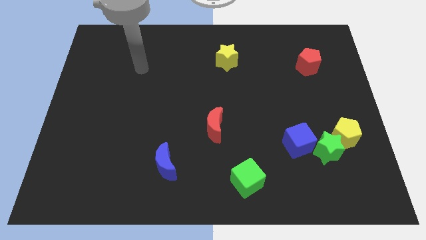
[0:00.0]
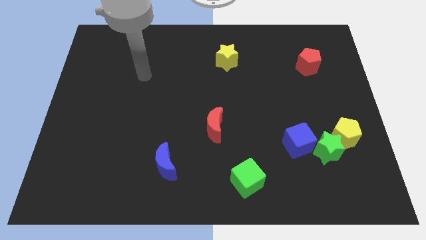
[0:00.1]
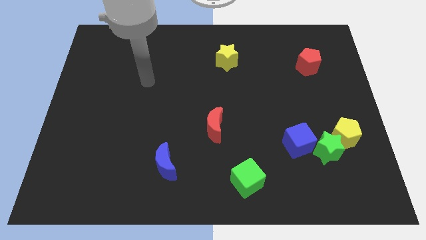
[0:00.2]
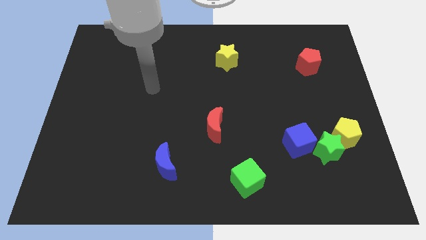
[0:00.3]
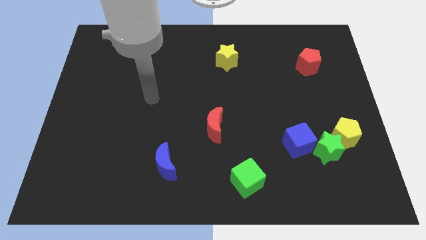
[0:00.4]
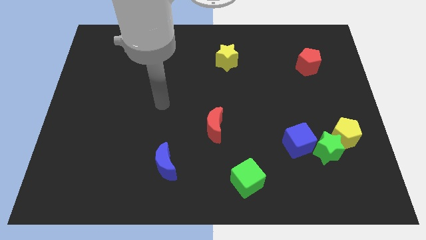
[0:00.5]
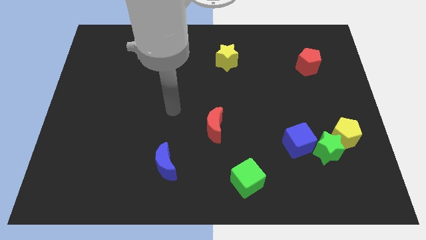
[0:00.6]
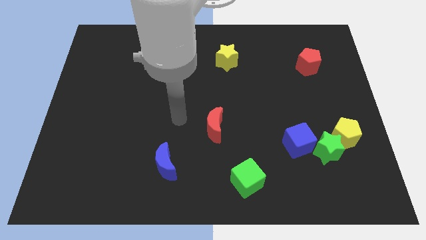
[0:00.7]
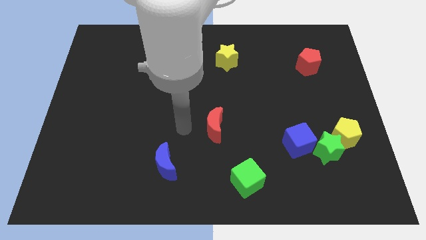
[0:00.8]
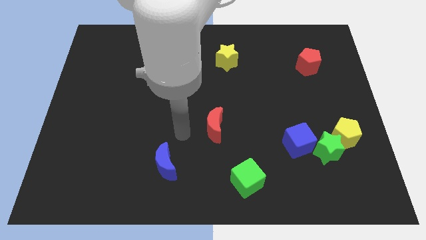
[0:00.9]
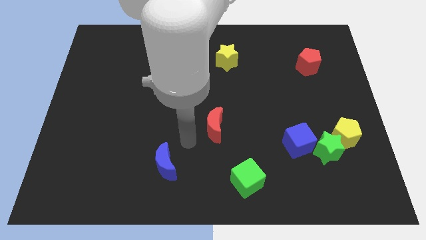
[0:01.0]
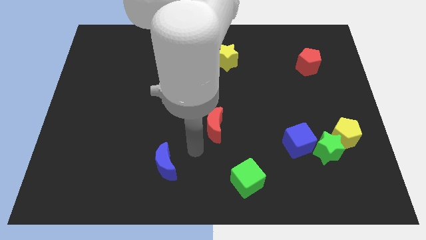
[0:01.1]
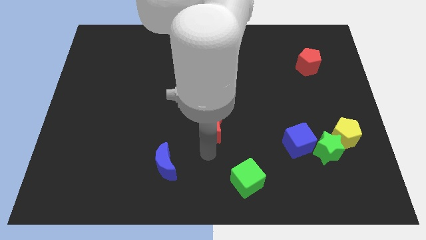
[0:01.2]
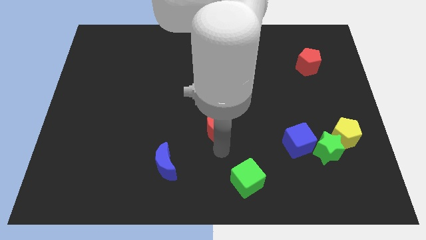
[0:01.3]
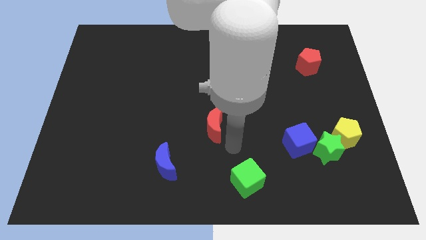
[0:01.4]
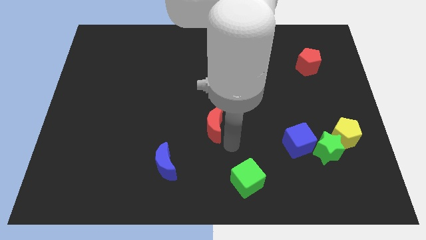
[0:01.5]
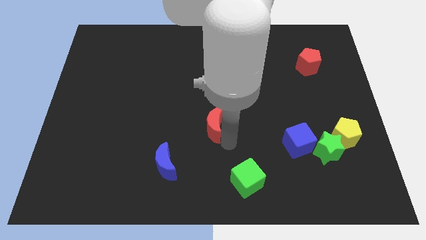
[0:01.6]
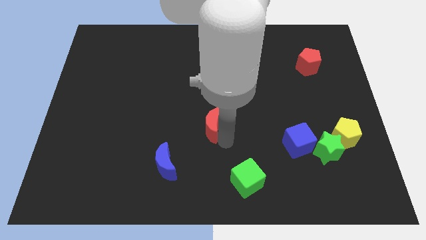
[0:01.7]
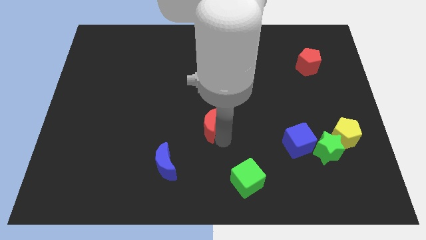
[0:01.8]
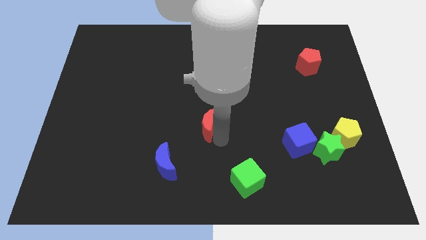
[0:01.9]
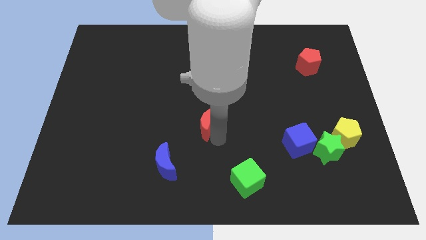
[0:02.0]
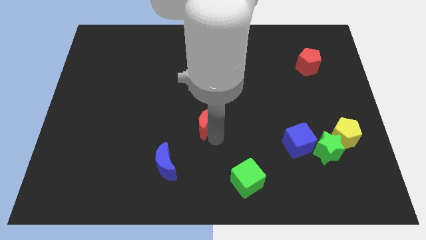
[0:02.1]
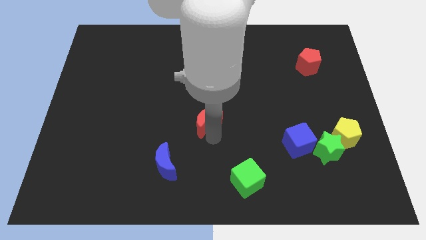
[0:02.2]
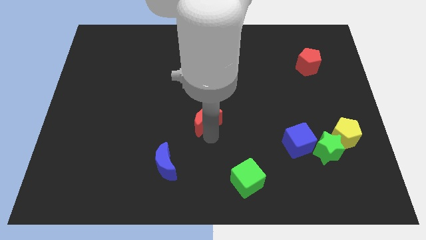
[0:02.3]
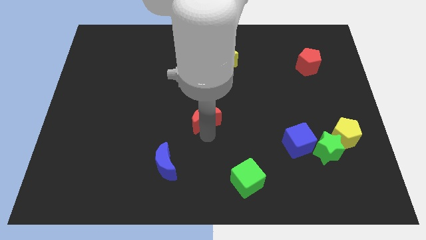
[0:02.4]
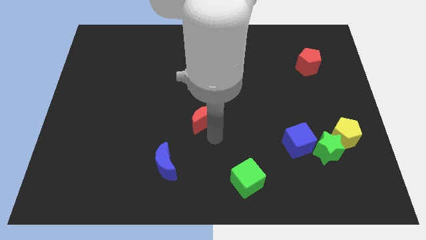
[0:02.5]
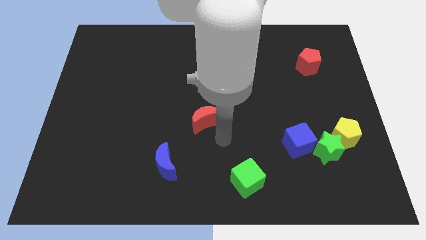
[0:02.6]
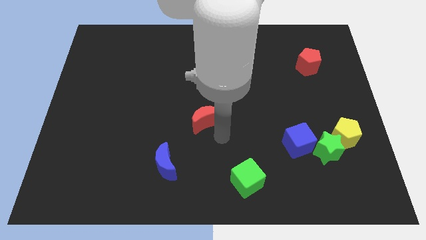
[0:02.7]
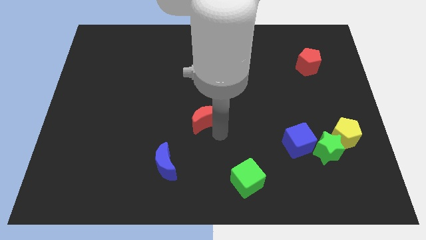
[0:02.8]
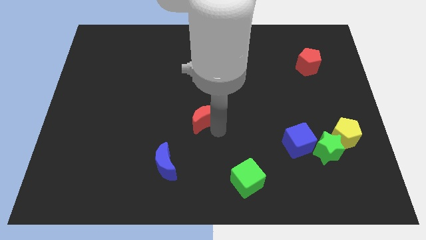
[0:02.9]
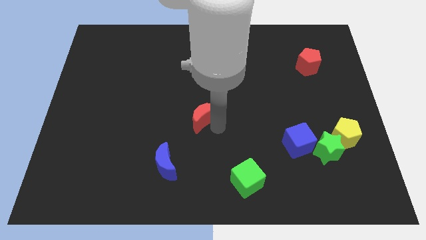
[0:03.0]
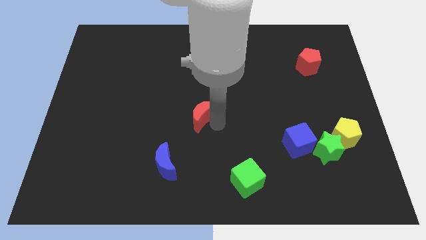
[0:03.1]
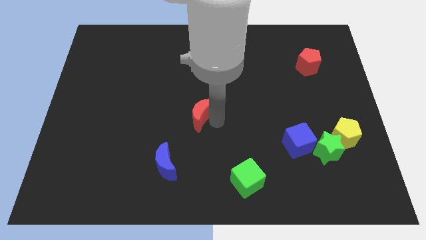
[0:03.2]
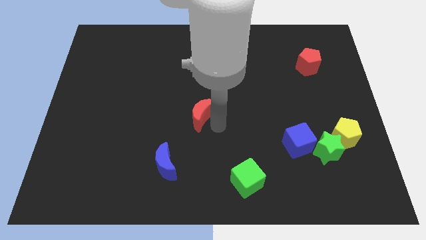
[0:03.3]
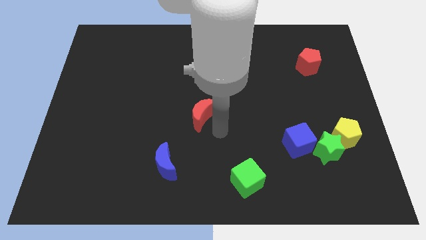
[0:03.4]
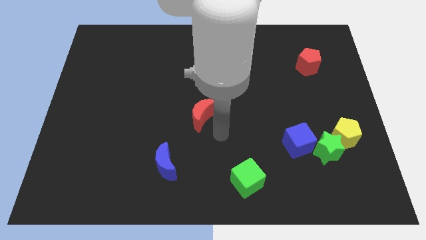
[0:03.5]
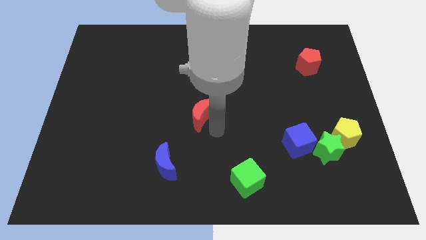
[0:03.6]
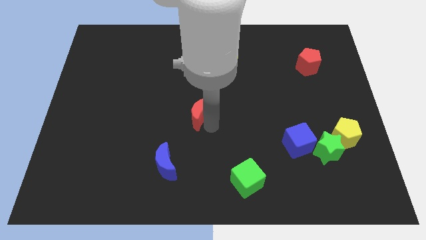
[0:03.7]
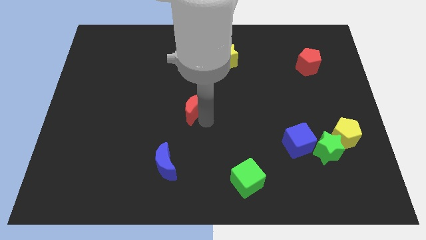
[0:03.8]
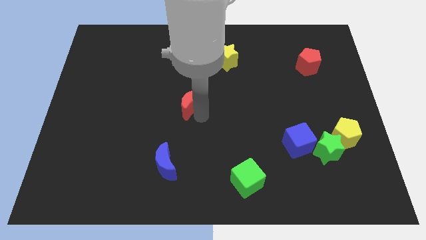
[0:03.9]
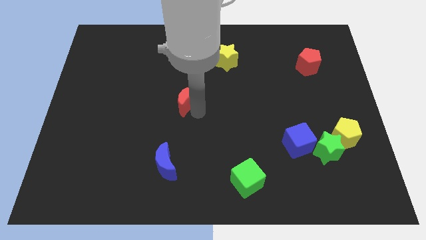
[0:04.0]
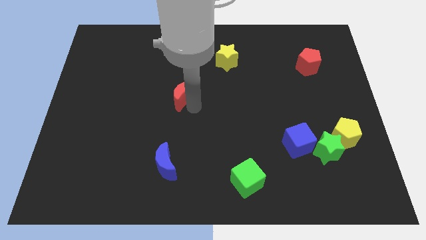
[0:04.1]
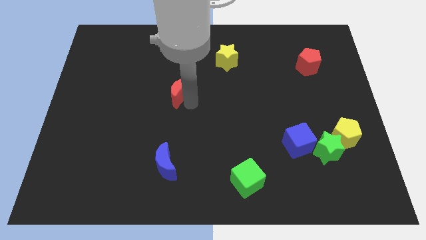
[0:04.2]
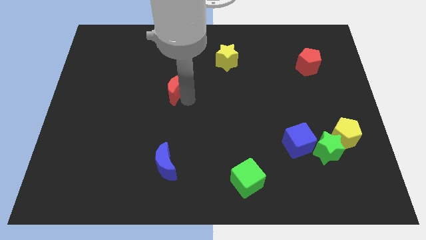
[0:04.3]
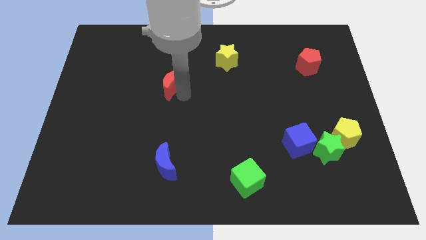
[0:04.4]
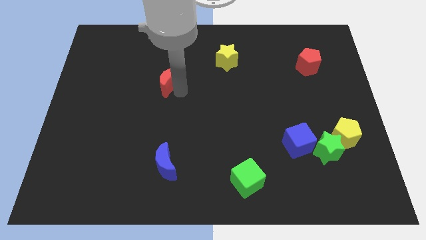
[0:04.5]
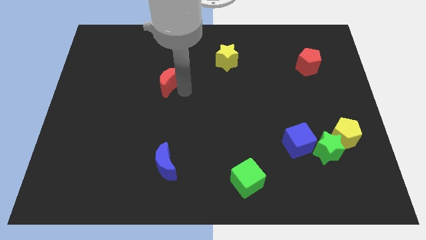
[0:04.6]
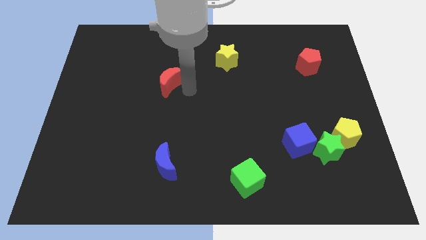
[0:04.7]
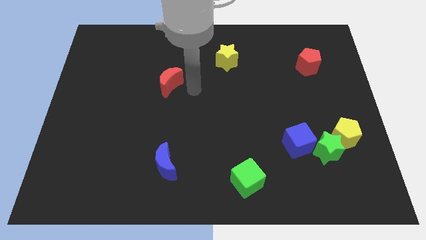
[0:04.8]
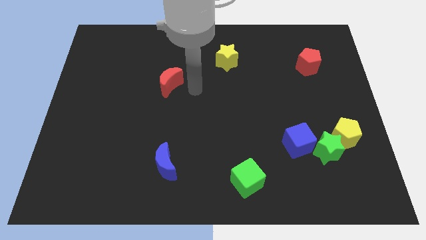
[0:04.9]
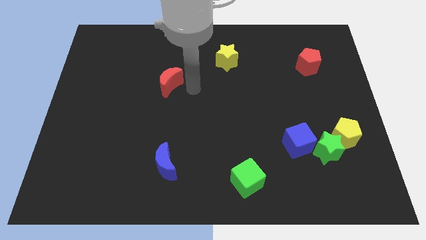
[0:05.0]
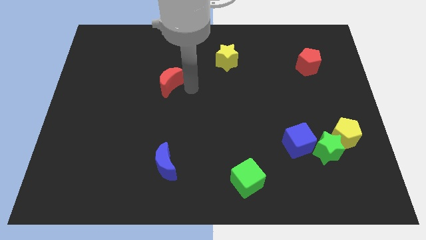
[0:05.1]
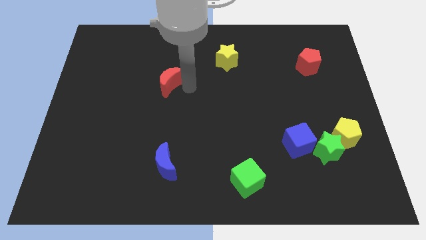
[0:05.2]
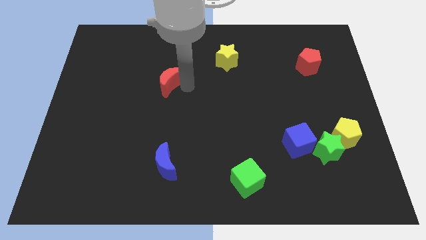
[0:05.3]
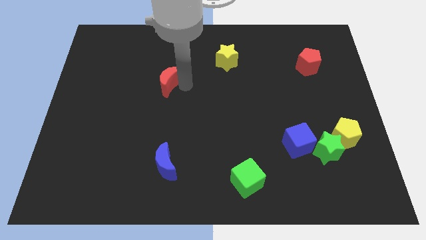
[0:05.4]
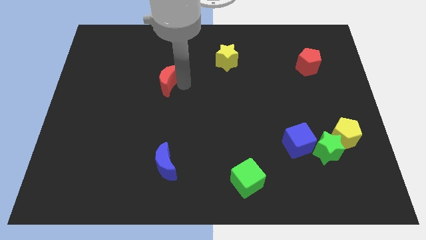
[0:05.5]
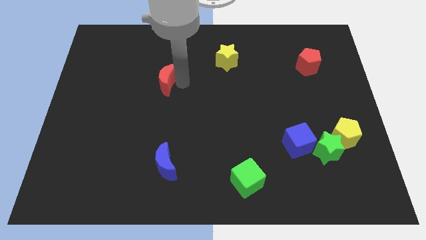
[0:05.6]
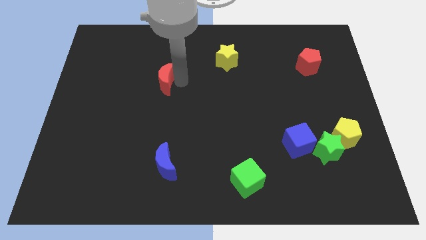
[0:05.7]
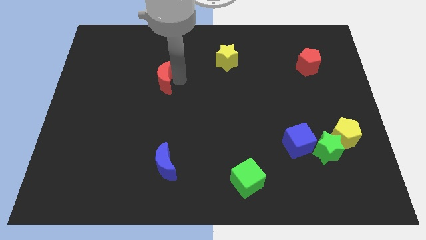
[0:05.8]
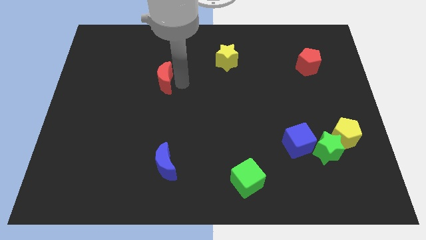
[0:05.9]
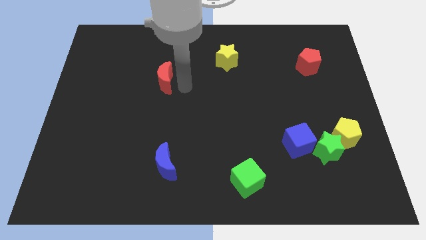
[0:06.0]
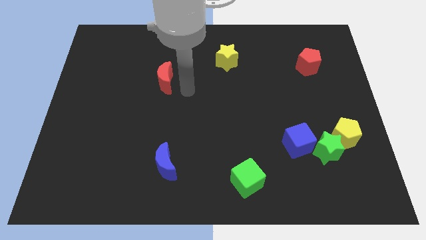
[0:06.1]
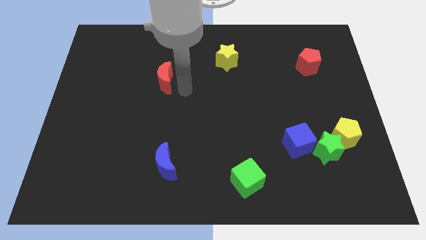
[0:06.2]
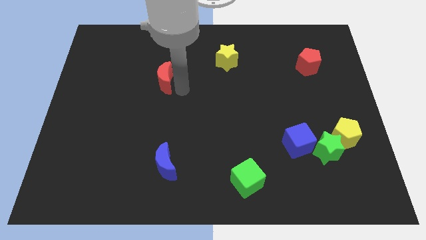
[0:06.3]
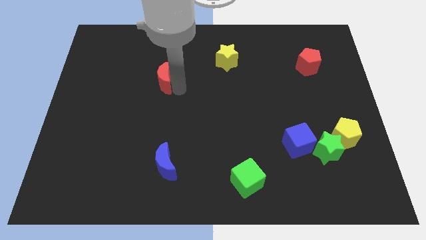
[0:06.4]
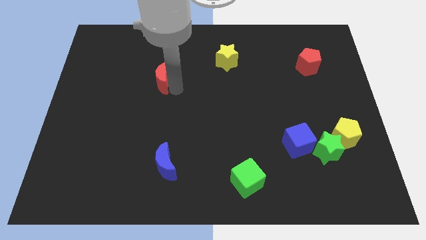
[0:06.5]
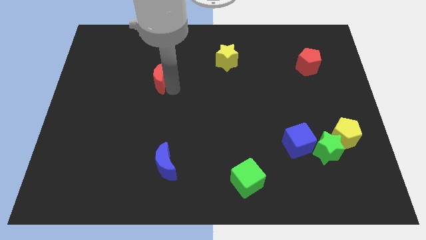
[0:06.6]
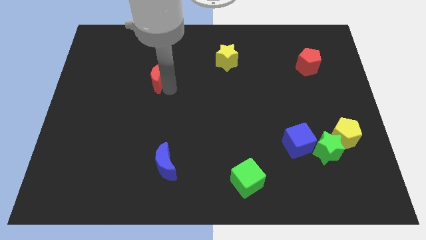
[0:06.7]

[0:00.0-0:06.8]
push the red moon upwards and to the left

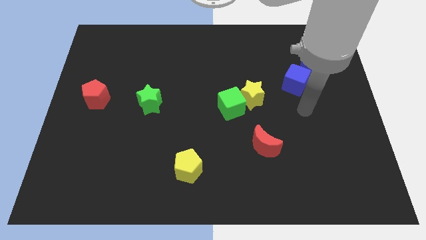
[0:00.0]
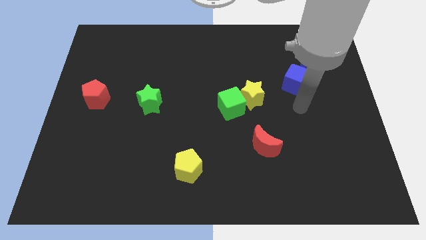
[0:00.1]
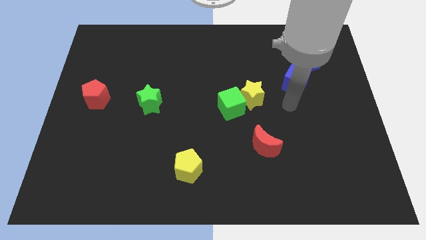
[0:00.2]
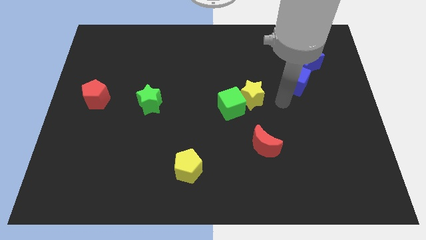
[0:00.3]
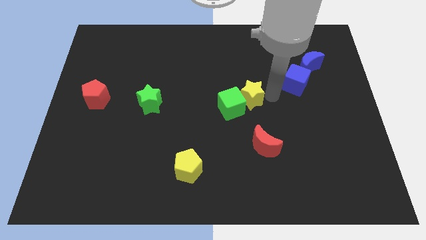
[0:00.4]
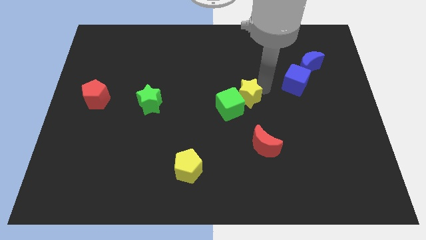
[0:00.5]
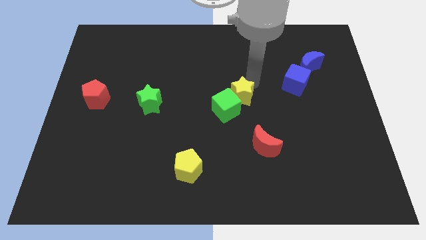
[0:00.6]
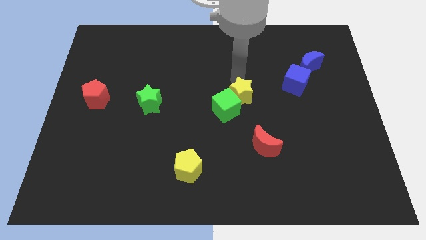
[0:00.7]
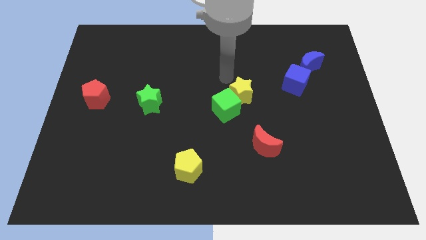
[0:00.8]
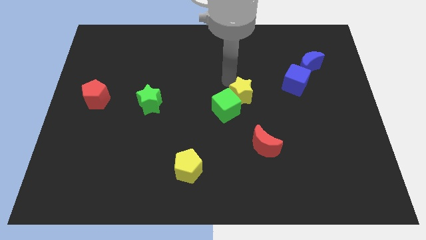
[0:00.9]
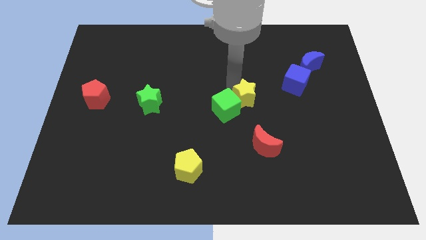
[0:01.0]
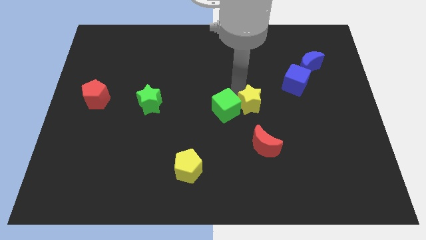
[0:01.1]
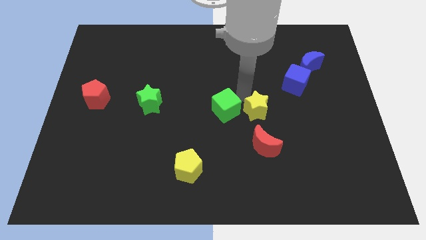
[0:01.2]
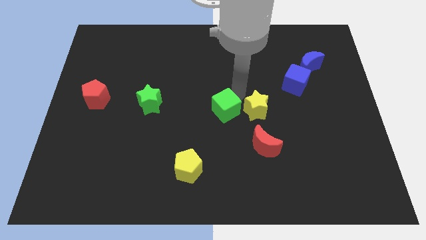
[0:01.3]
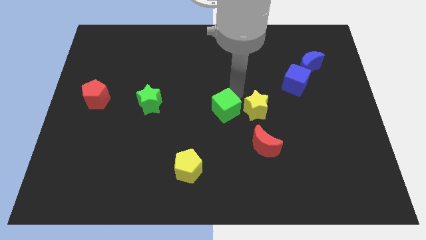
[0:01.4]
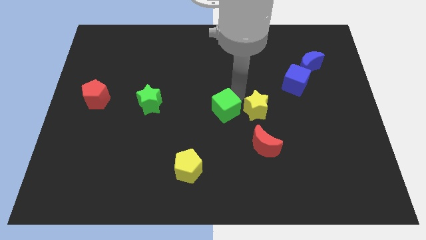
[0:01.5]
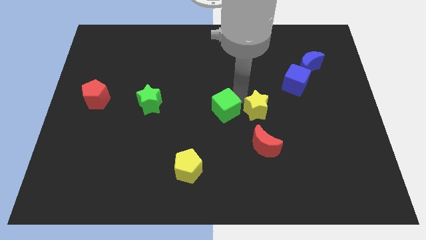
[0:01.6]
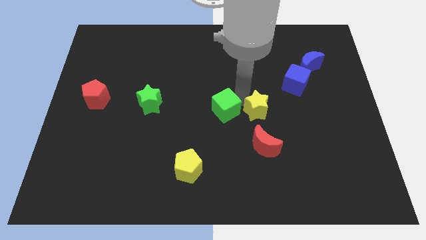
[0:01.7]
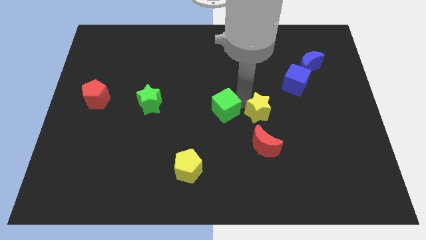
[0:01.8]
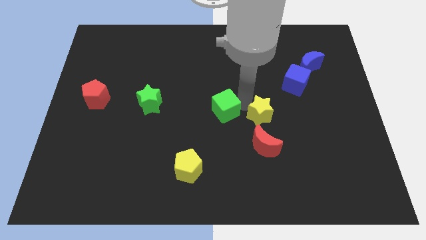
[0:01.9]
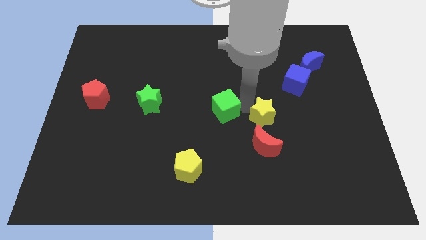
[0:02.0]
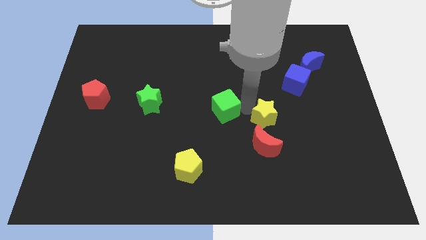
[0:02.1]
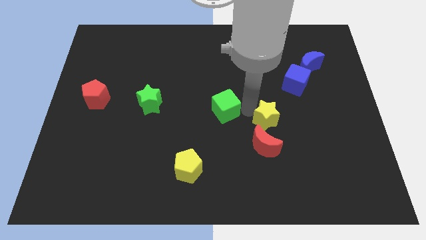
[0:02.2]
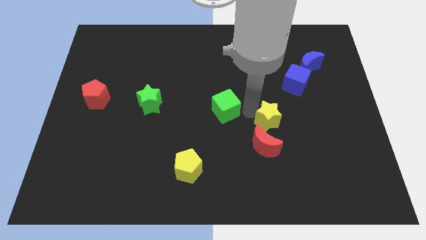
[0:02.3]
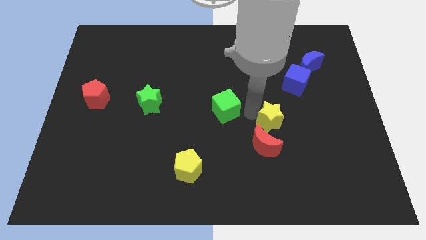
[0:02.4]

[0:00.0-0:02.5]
slightly push the yellow star downwards and right diagonally
